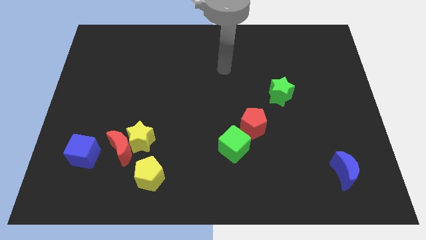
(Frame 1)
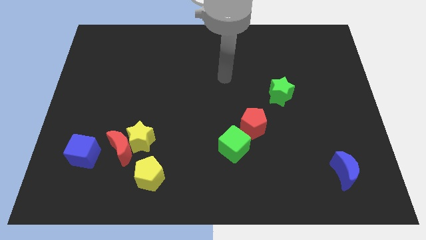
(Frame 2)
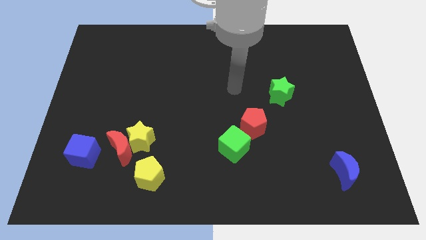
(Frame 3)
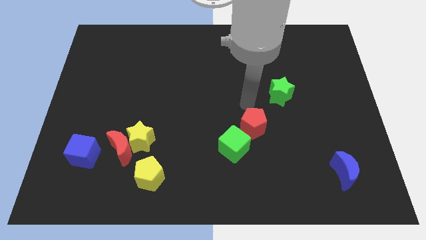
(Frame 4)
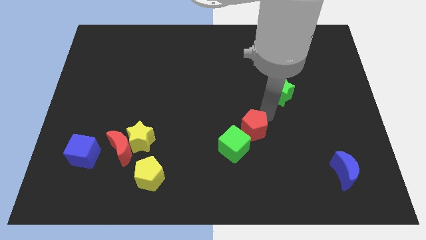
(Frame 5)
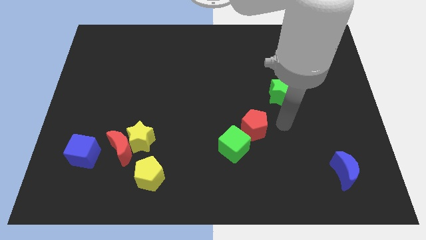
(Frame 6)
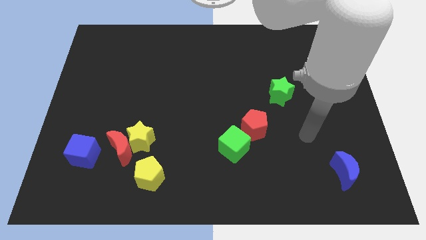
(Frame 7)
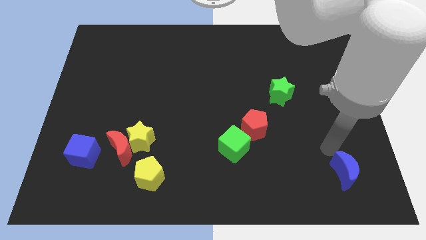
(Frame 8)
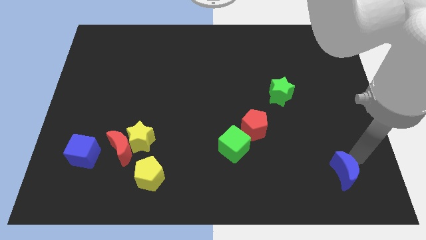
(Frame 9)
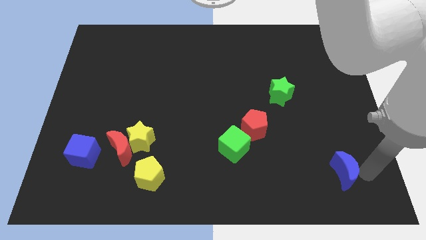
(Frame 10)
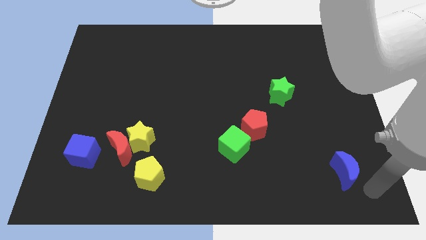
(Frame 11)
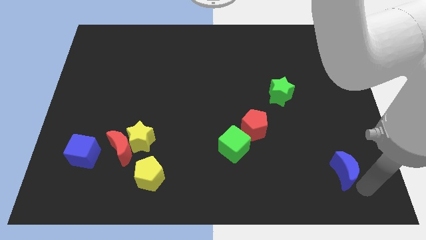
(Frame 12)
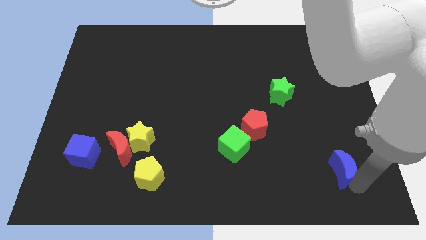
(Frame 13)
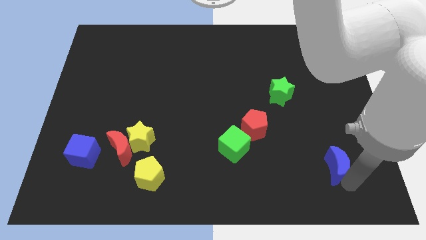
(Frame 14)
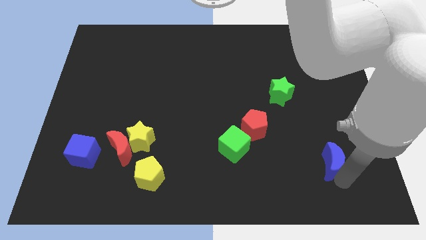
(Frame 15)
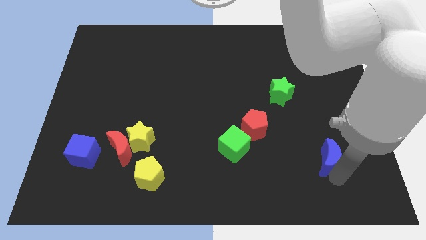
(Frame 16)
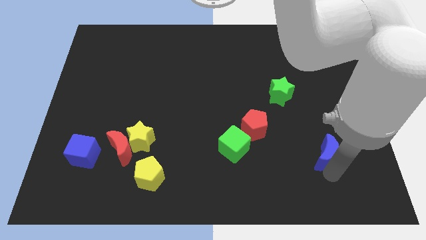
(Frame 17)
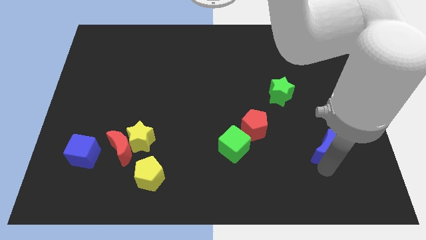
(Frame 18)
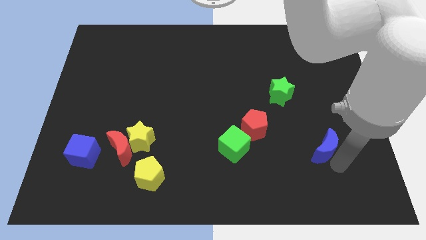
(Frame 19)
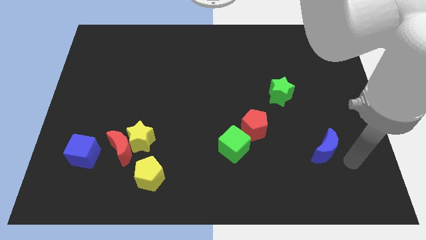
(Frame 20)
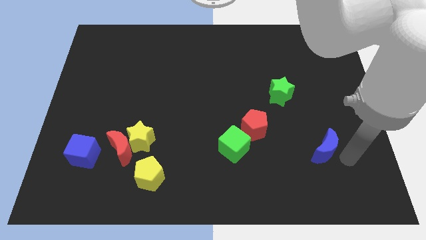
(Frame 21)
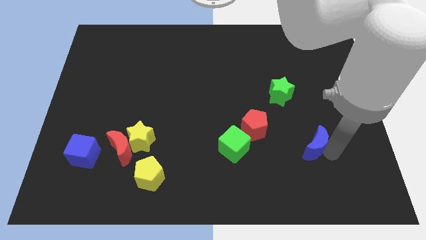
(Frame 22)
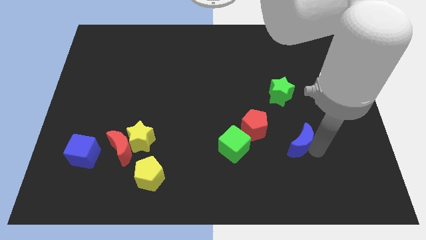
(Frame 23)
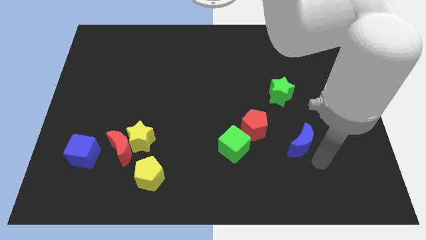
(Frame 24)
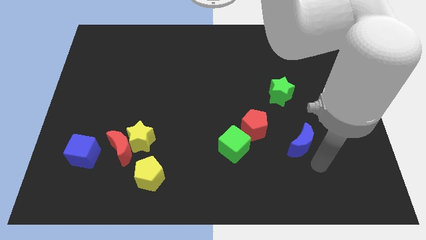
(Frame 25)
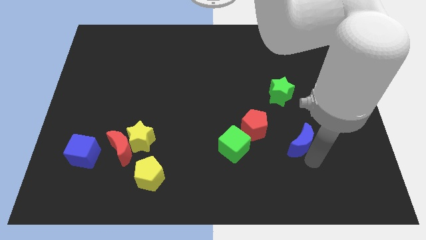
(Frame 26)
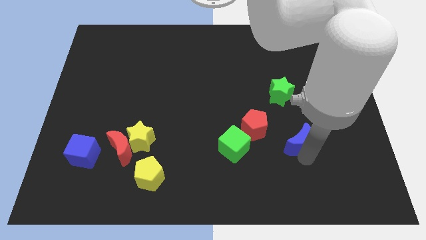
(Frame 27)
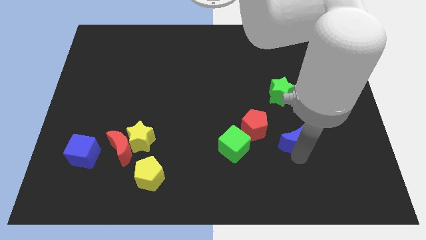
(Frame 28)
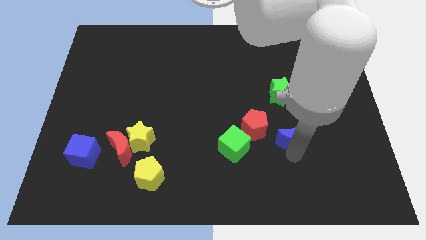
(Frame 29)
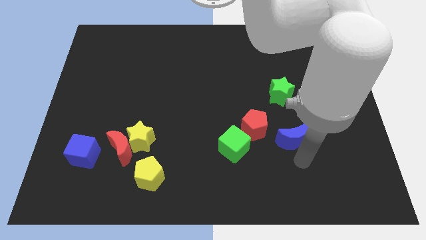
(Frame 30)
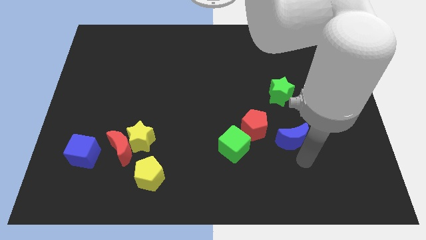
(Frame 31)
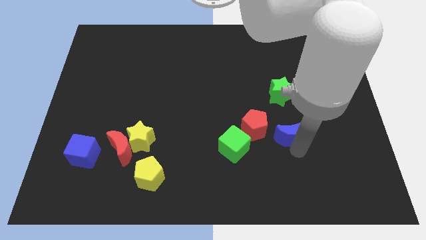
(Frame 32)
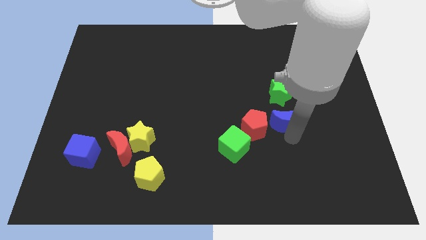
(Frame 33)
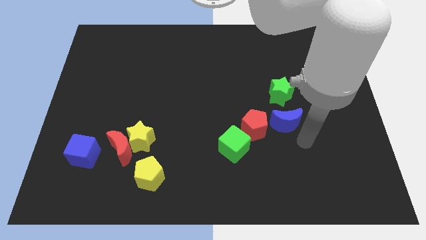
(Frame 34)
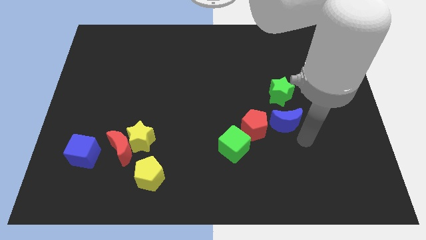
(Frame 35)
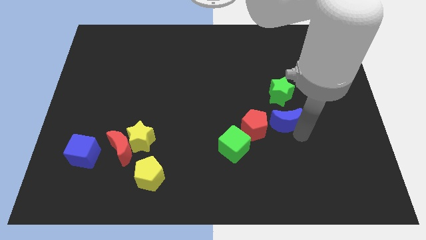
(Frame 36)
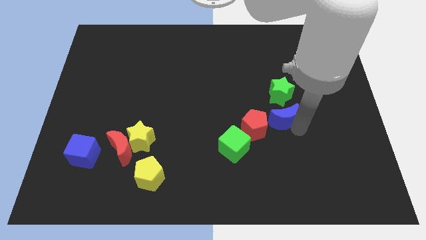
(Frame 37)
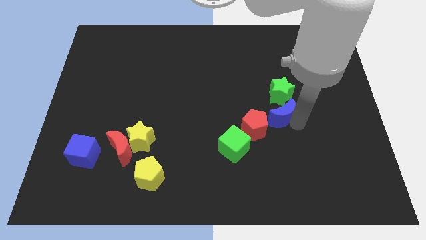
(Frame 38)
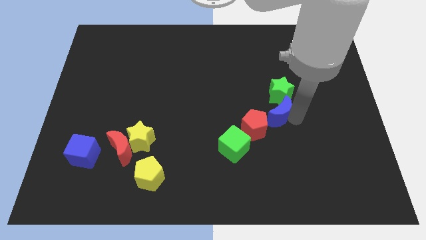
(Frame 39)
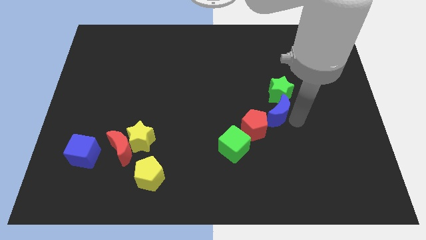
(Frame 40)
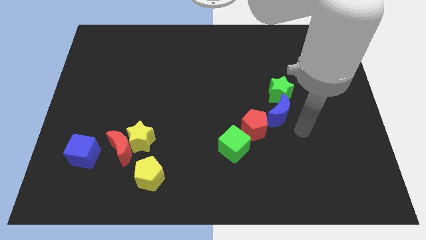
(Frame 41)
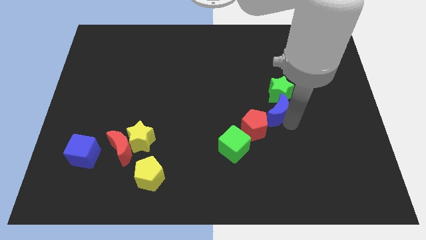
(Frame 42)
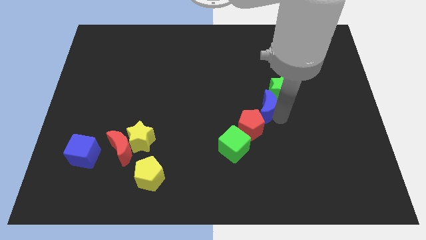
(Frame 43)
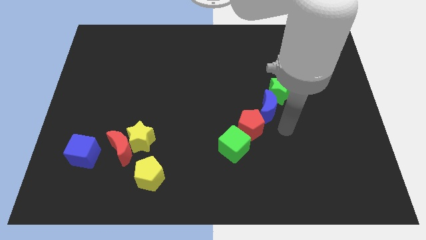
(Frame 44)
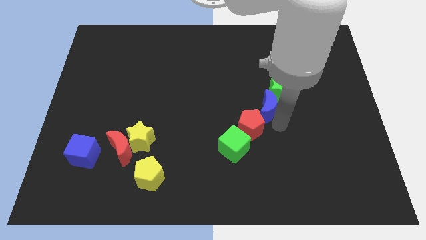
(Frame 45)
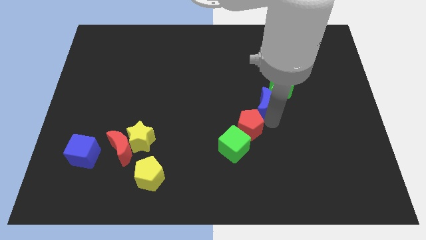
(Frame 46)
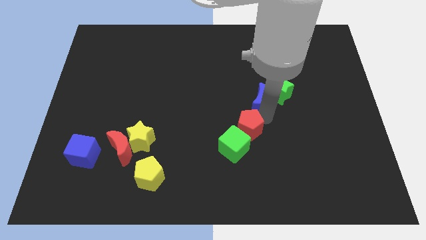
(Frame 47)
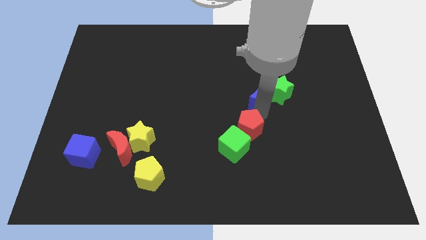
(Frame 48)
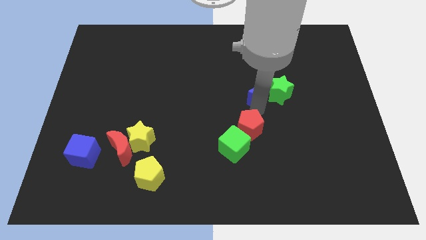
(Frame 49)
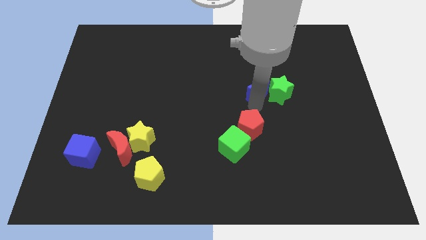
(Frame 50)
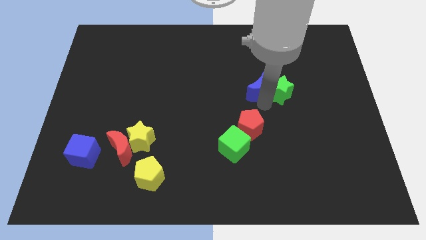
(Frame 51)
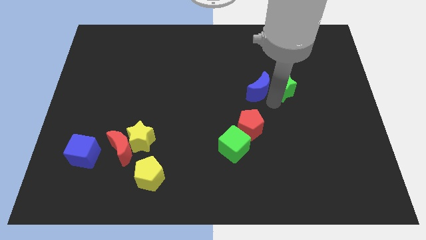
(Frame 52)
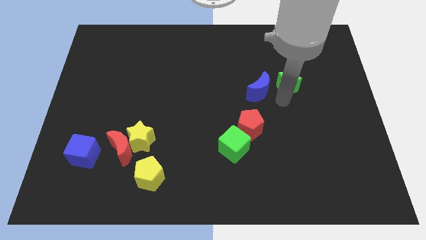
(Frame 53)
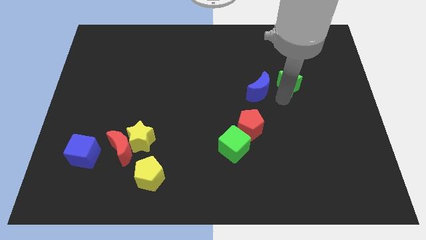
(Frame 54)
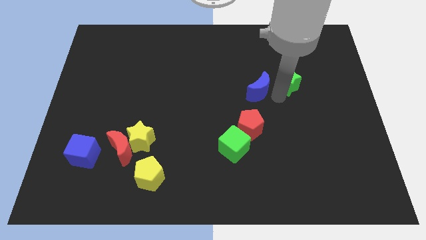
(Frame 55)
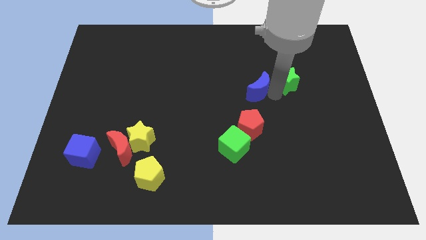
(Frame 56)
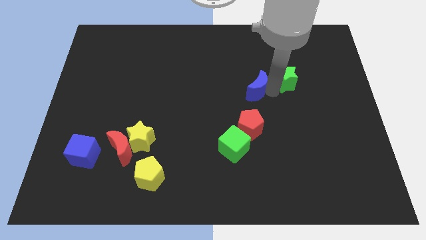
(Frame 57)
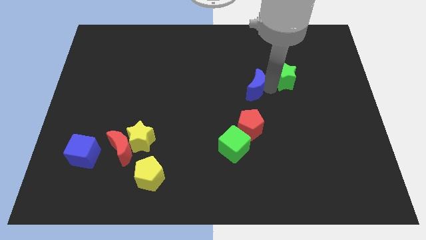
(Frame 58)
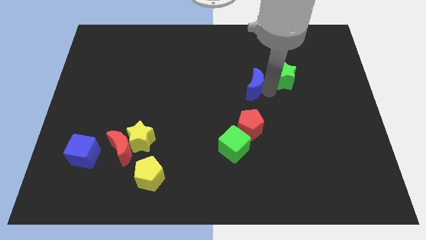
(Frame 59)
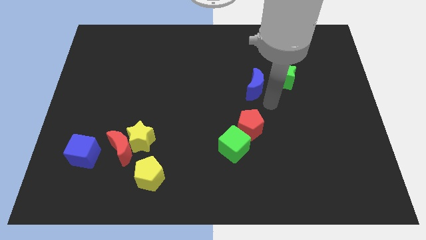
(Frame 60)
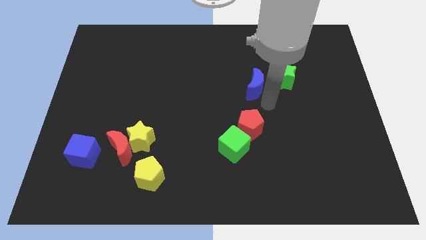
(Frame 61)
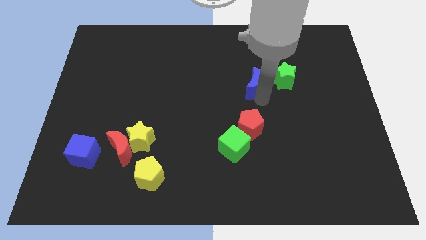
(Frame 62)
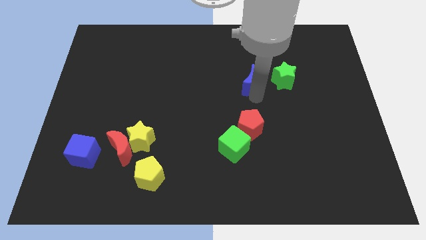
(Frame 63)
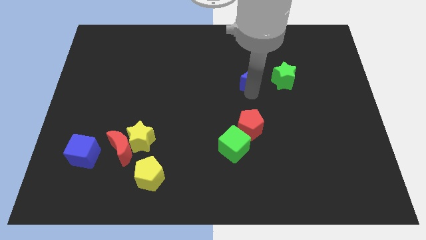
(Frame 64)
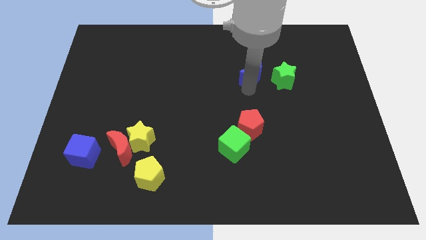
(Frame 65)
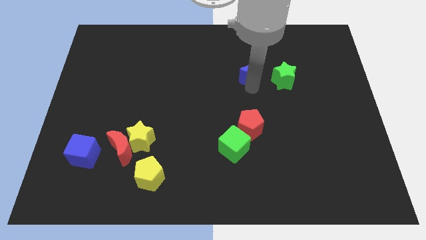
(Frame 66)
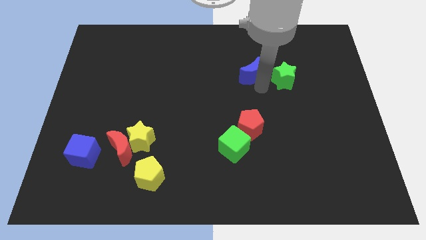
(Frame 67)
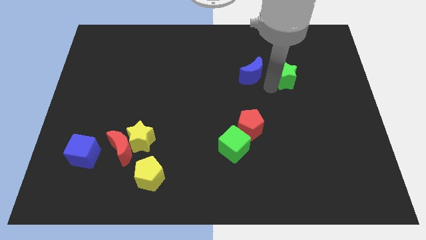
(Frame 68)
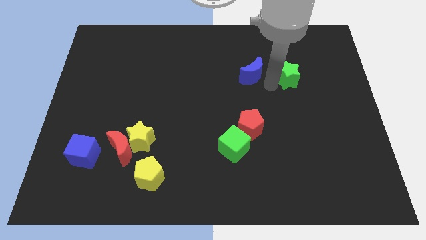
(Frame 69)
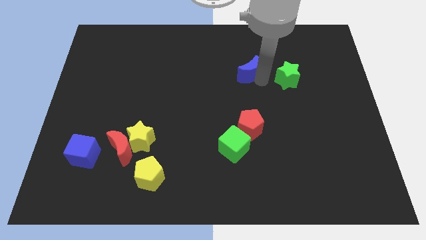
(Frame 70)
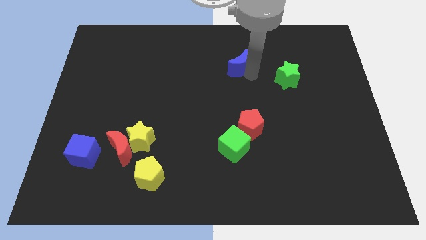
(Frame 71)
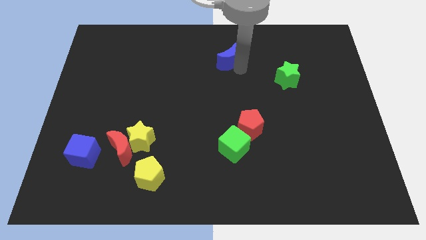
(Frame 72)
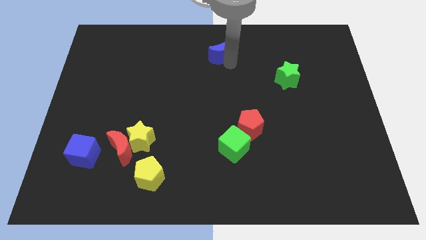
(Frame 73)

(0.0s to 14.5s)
put the blue moon to the top side
